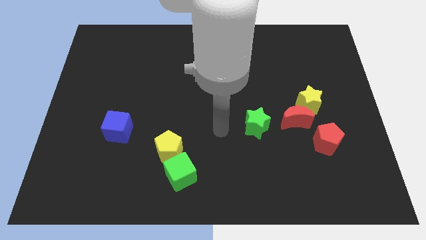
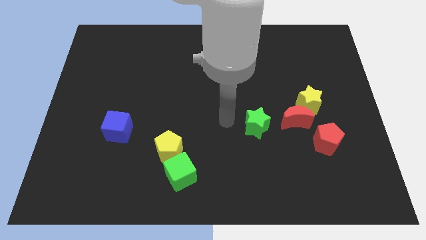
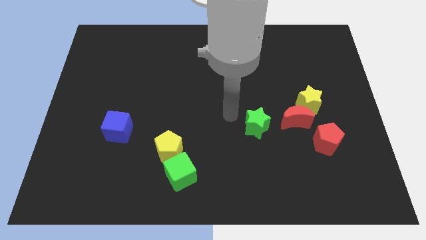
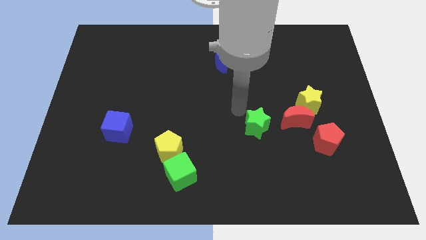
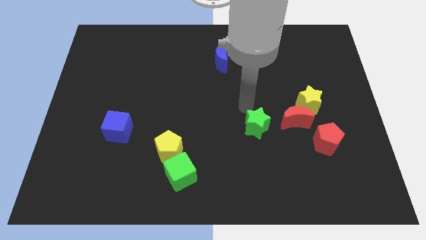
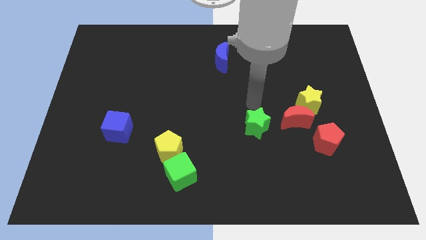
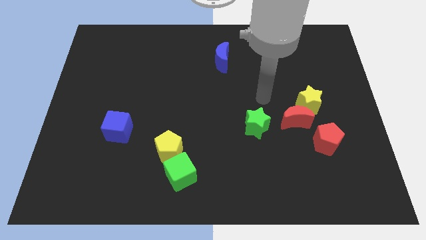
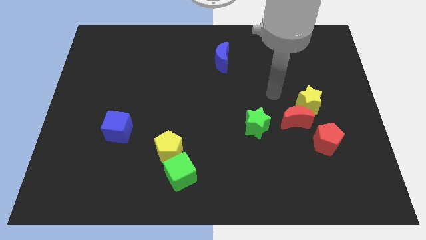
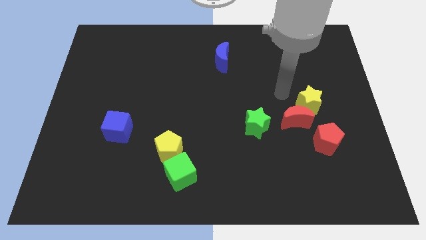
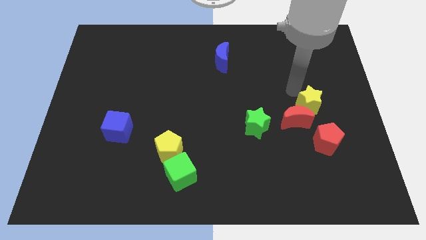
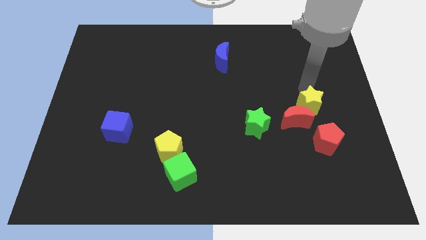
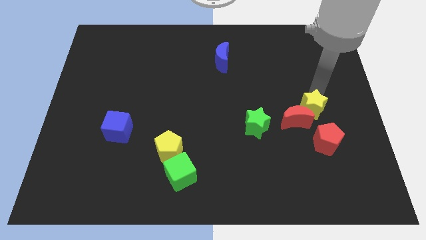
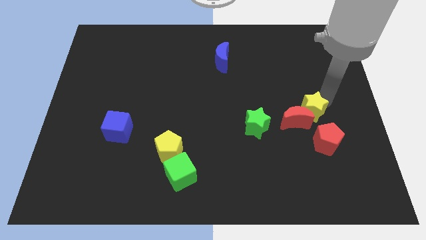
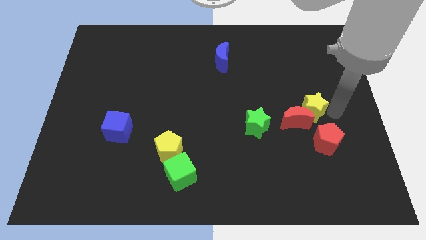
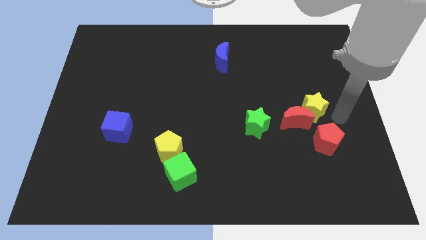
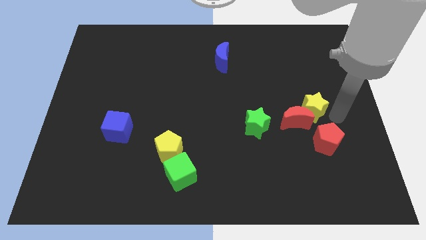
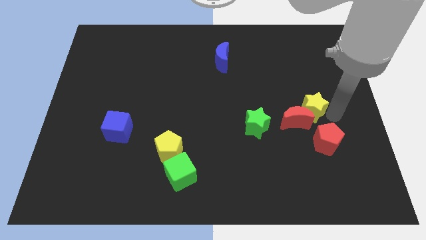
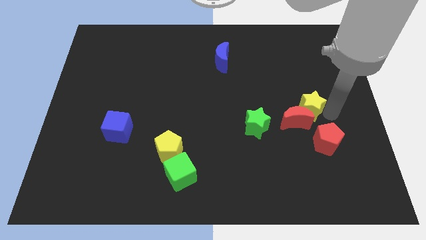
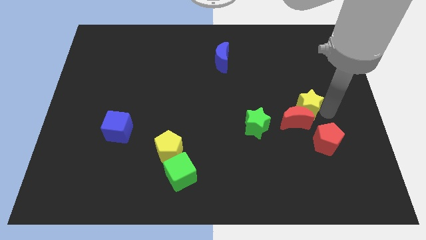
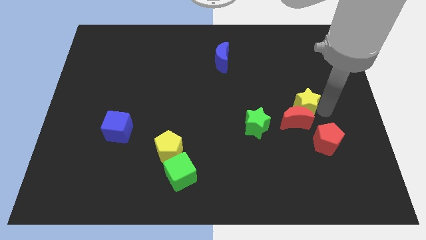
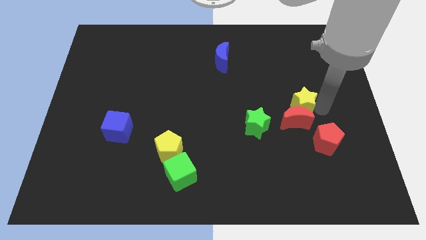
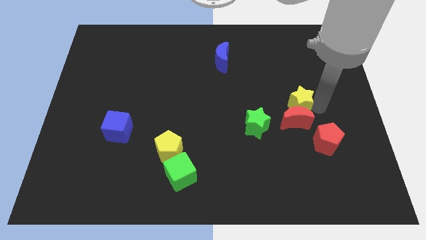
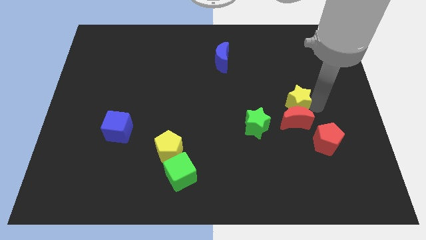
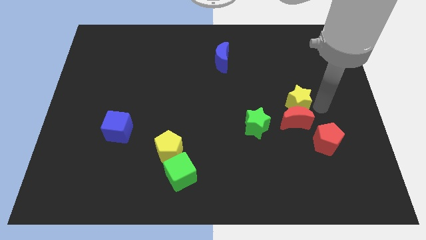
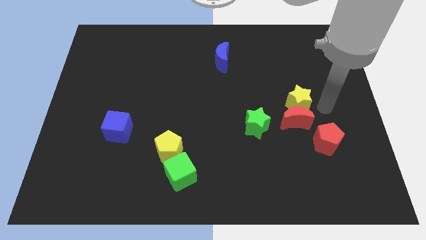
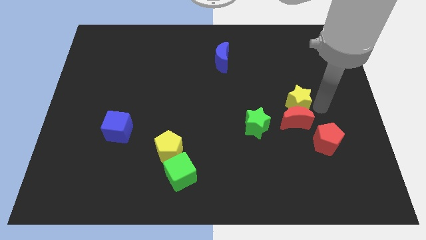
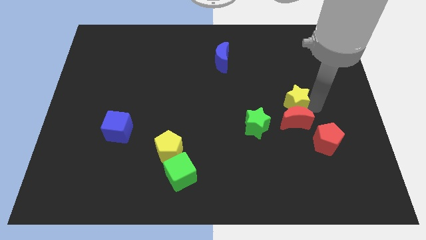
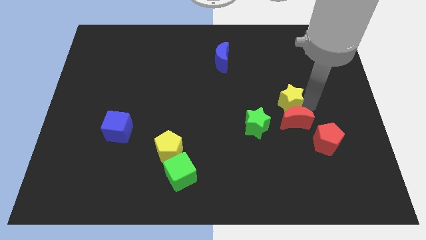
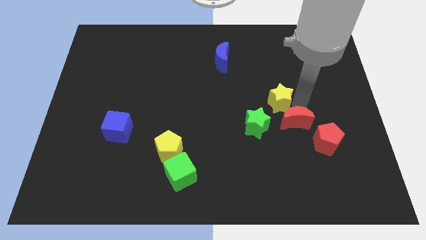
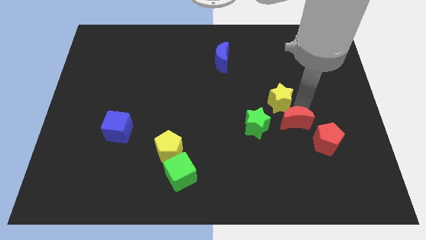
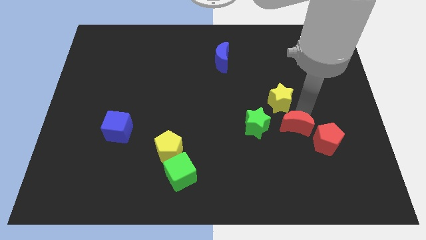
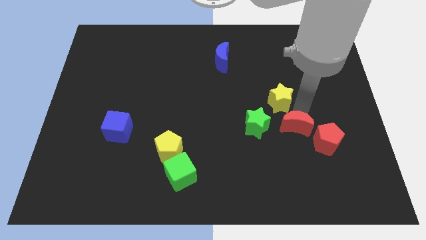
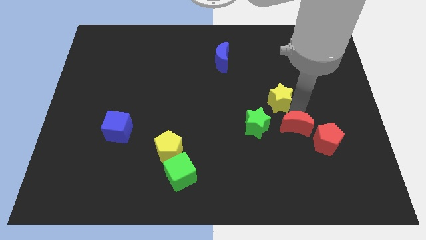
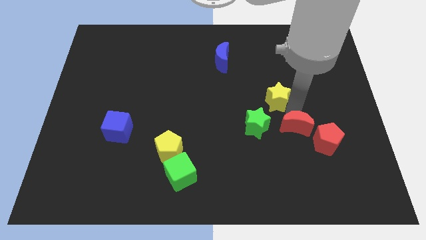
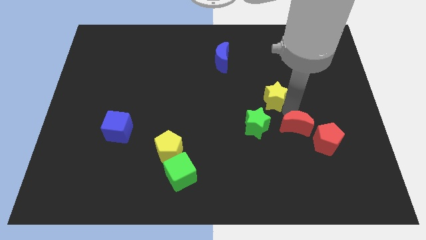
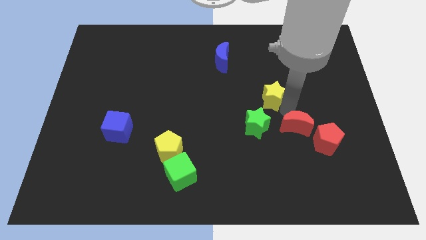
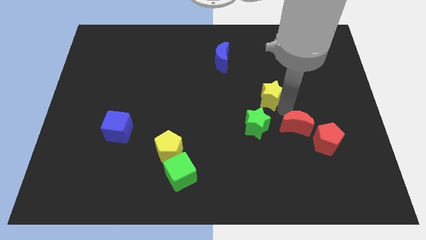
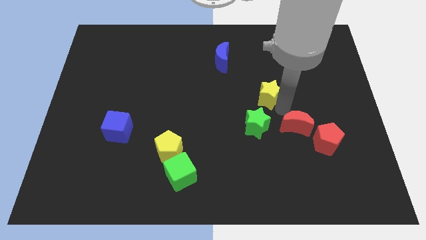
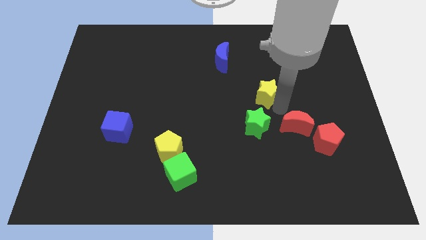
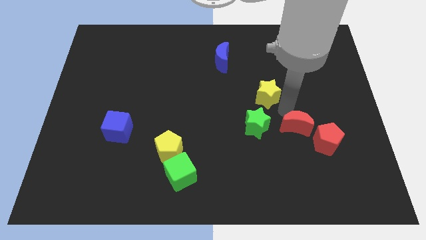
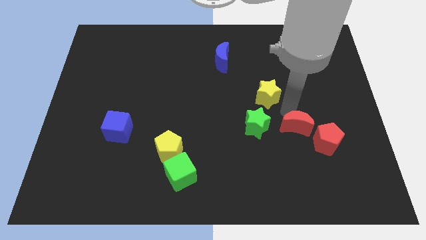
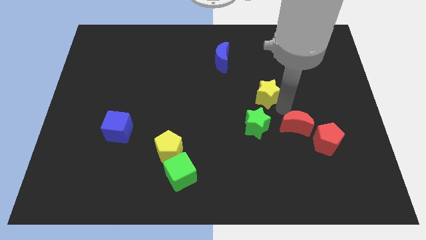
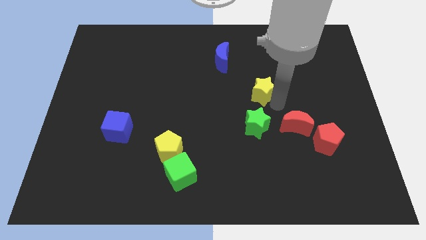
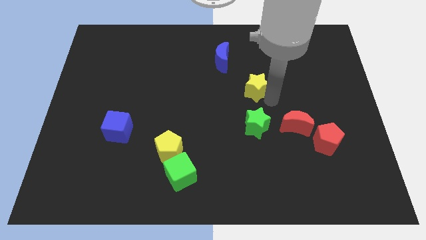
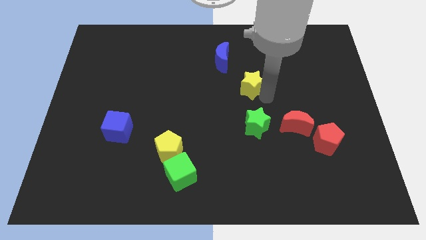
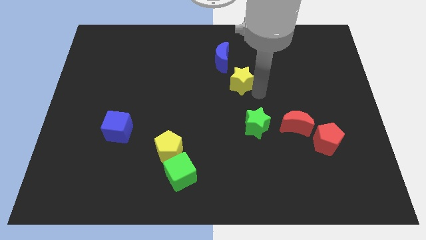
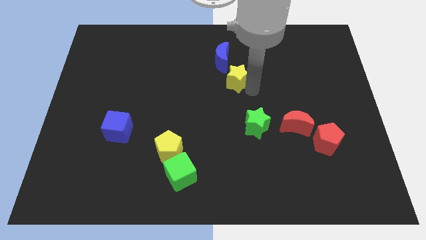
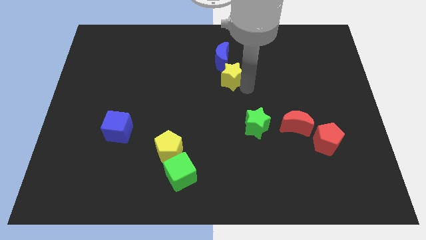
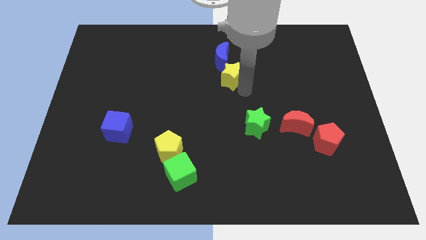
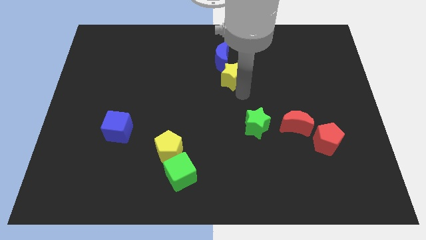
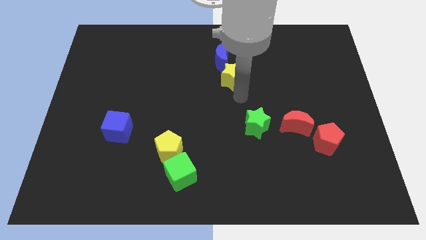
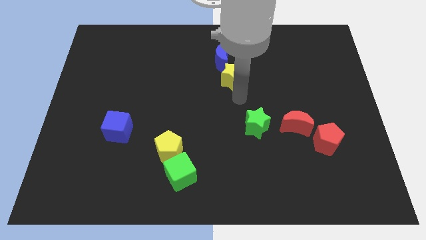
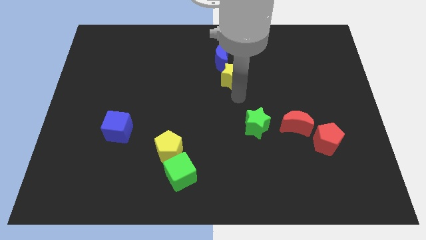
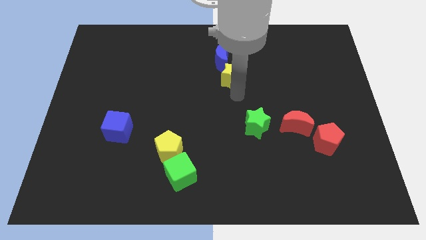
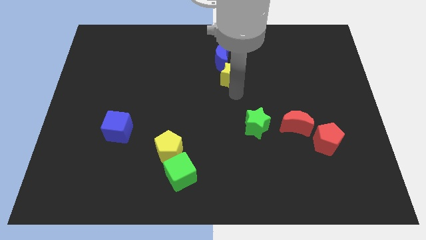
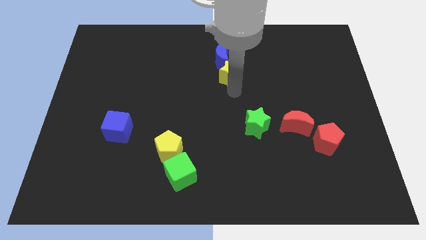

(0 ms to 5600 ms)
put the yellow star towards the blue moon

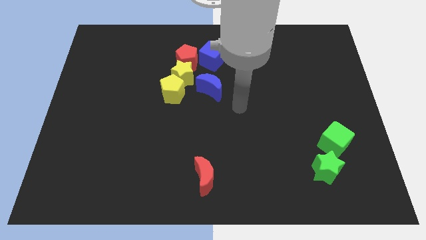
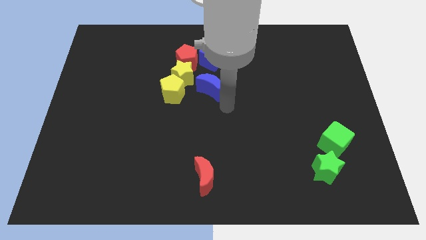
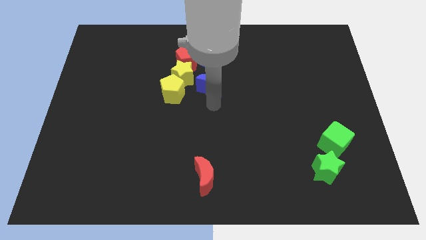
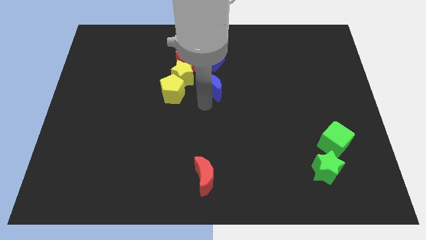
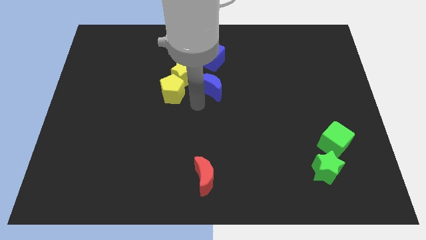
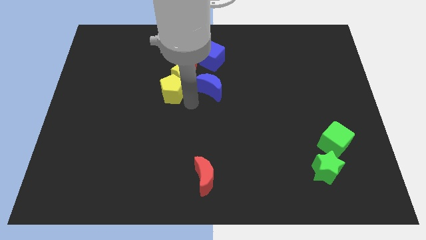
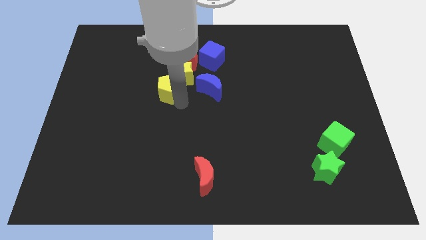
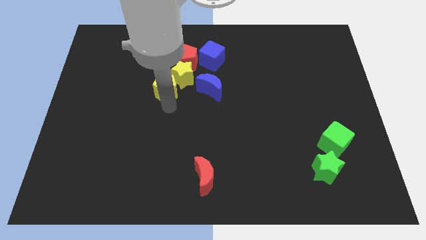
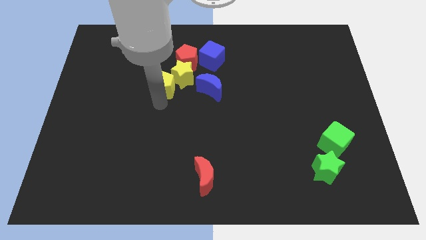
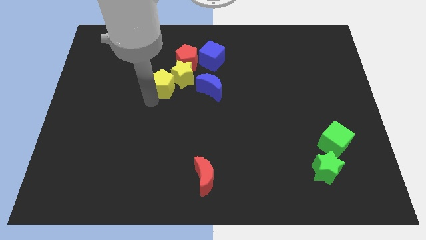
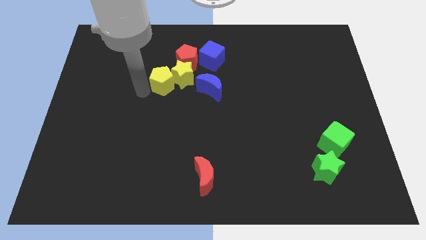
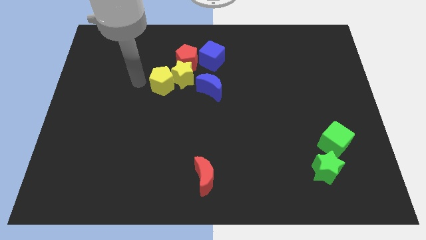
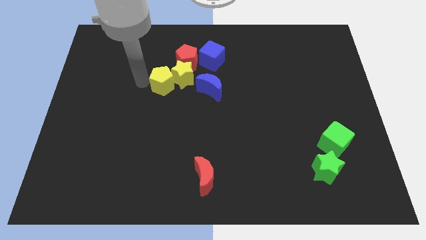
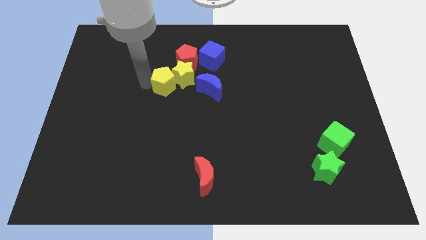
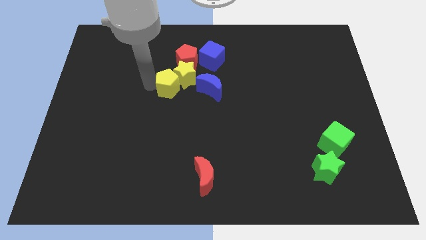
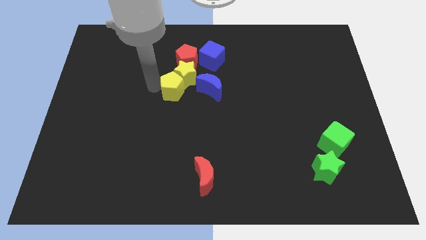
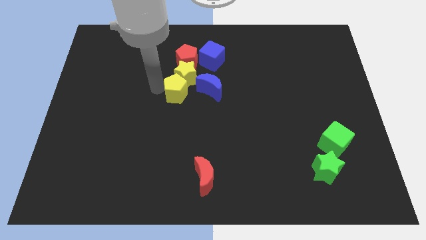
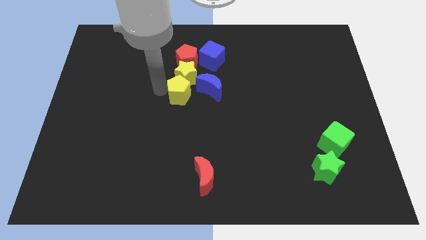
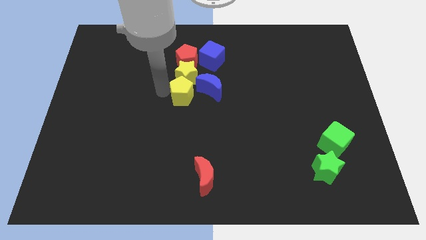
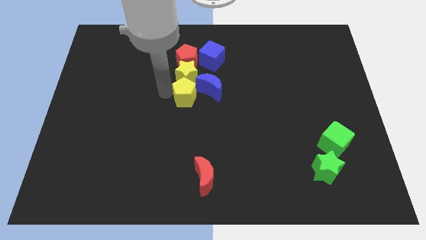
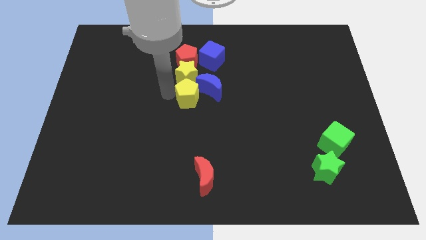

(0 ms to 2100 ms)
push the yellow pentagon close to the blue moon
